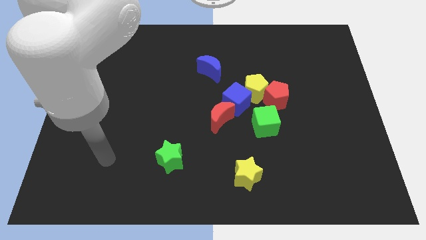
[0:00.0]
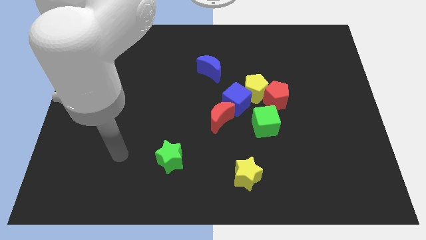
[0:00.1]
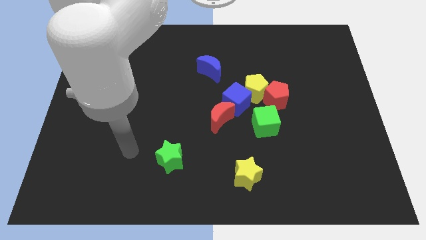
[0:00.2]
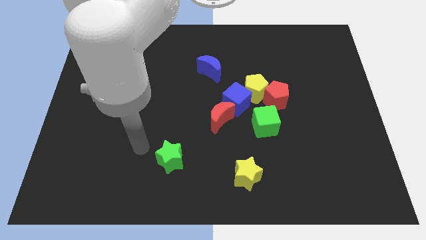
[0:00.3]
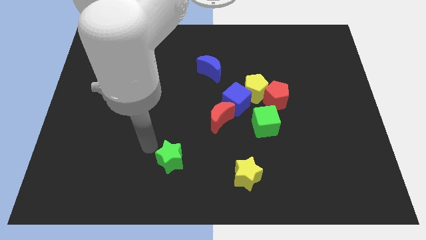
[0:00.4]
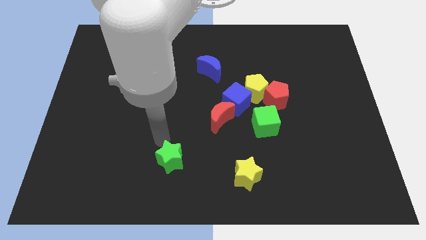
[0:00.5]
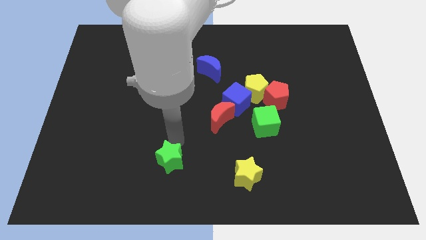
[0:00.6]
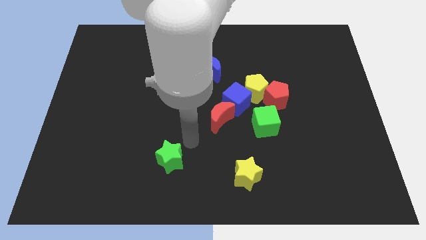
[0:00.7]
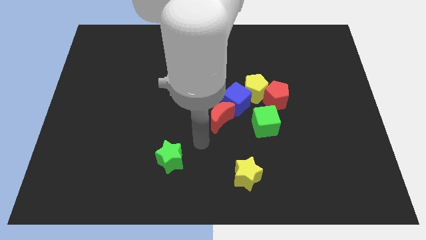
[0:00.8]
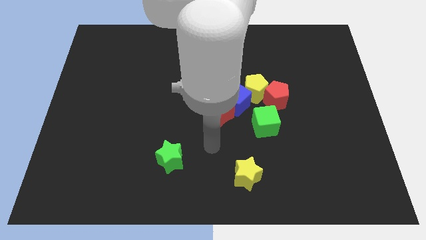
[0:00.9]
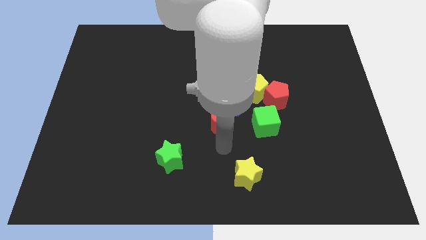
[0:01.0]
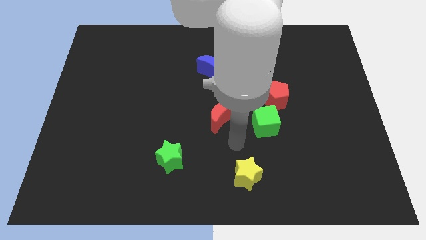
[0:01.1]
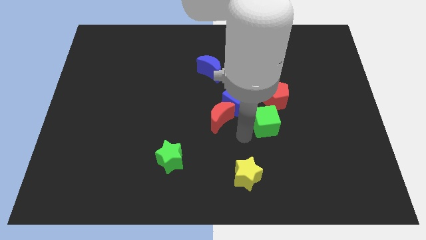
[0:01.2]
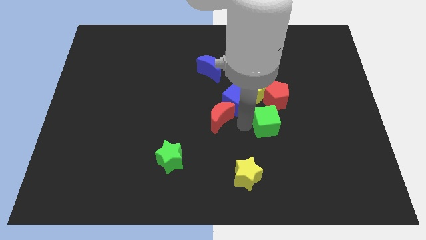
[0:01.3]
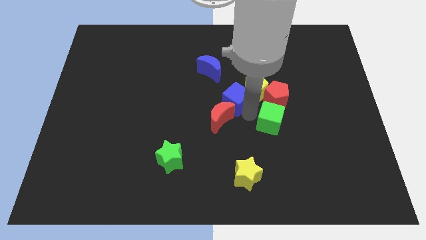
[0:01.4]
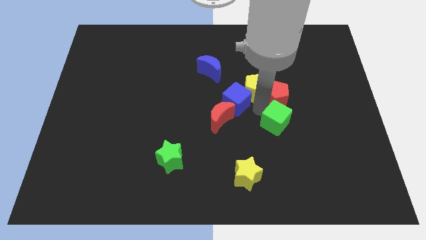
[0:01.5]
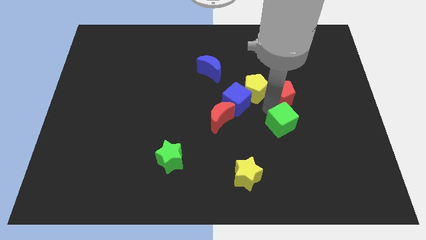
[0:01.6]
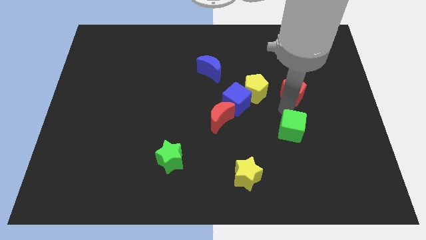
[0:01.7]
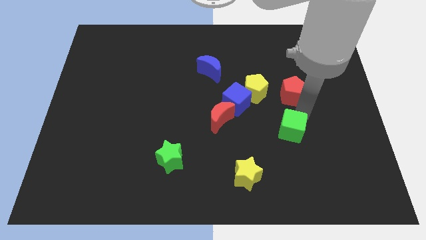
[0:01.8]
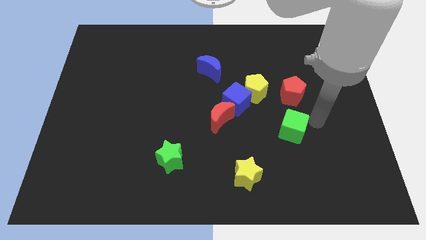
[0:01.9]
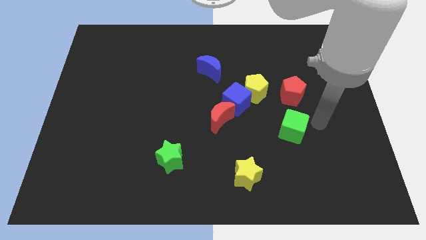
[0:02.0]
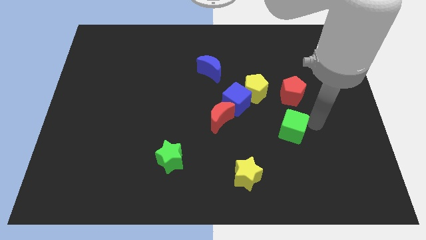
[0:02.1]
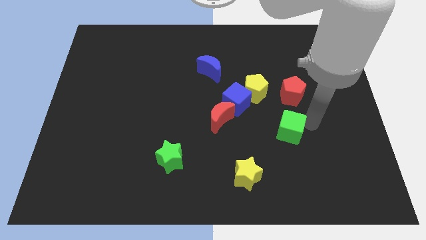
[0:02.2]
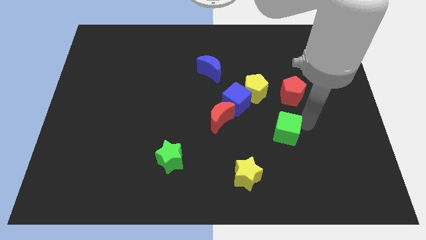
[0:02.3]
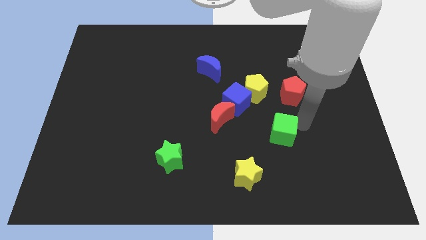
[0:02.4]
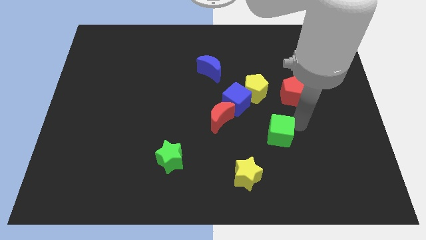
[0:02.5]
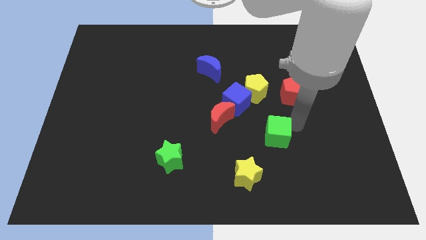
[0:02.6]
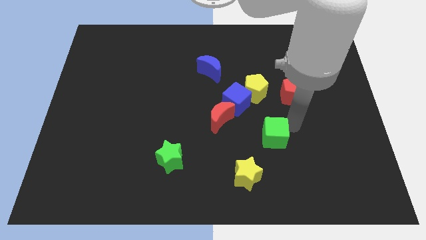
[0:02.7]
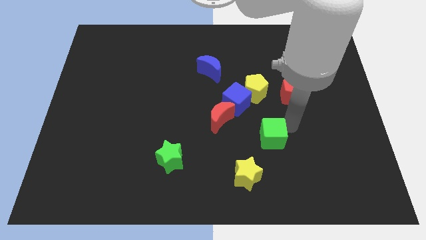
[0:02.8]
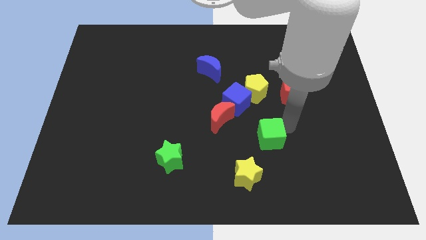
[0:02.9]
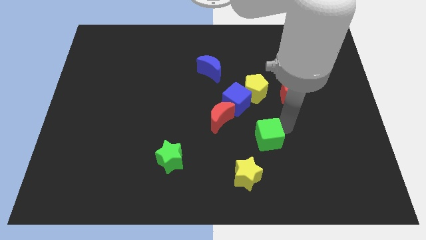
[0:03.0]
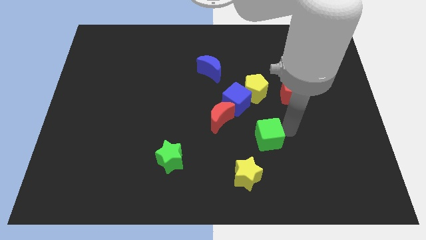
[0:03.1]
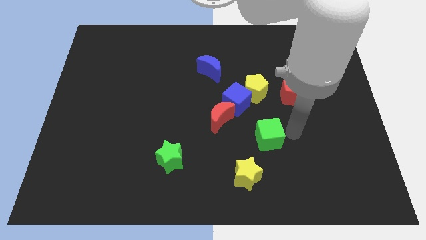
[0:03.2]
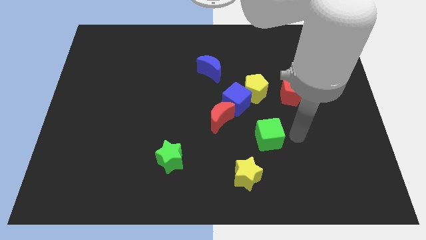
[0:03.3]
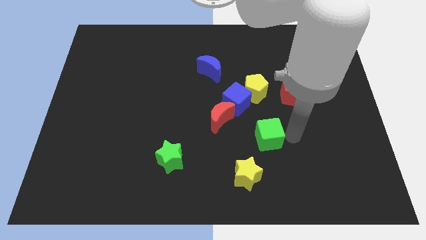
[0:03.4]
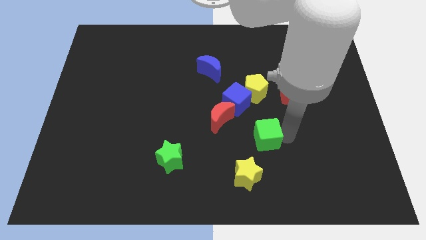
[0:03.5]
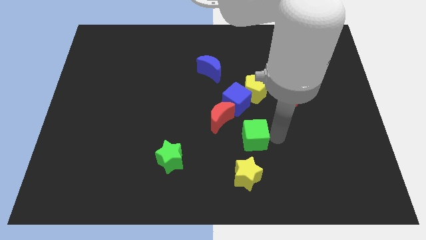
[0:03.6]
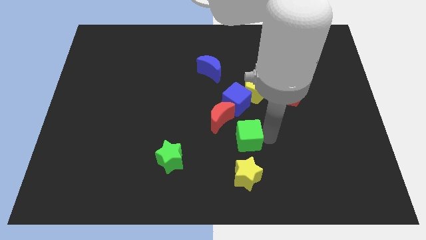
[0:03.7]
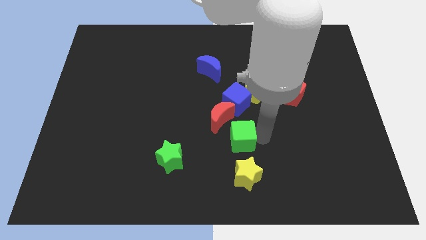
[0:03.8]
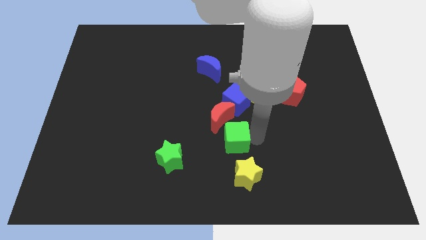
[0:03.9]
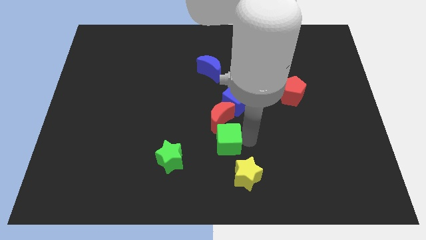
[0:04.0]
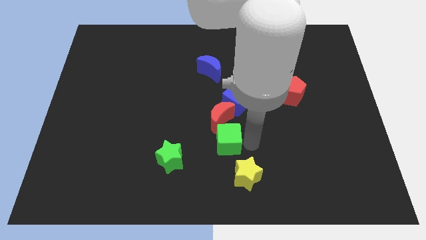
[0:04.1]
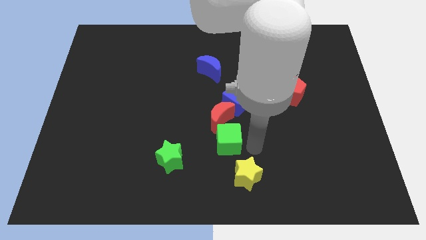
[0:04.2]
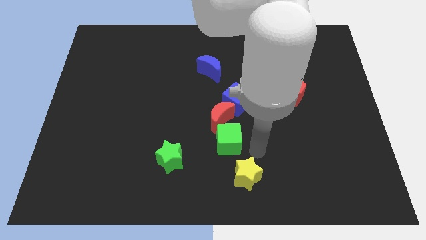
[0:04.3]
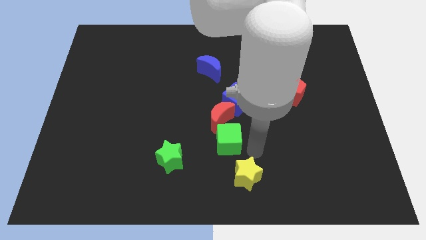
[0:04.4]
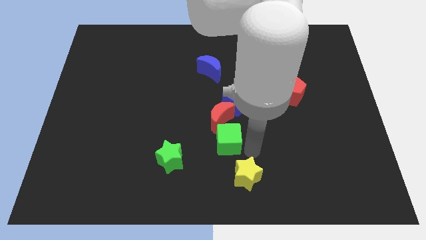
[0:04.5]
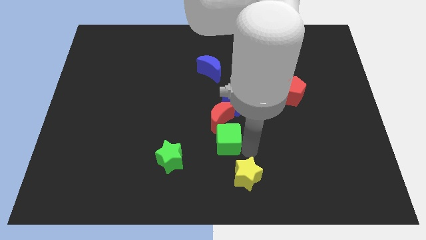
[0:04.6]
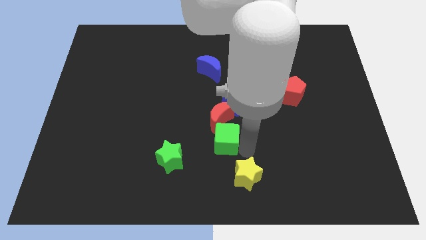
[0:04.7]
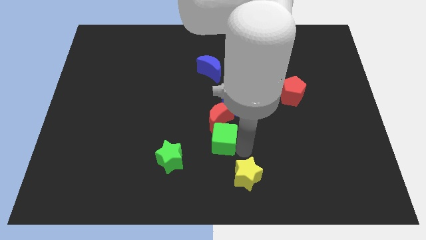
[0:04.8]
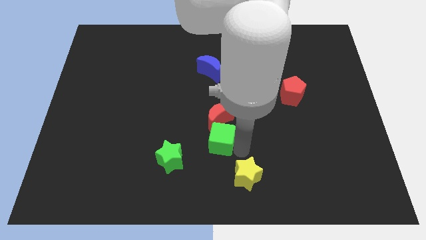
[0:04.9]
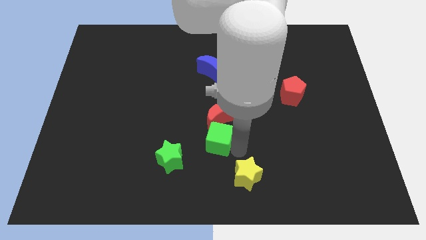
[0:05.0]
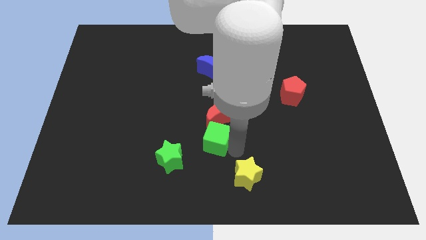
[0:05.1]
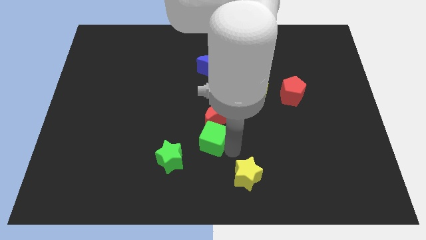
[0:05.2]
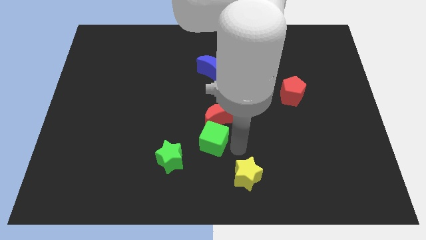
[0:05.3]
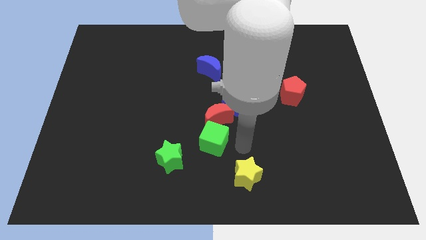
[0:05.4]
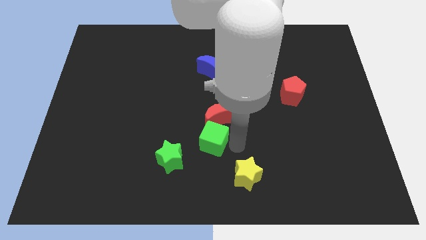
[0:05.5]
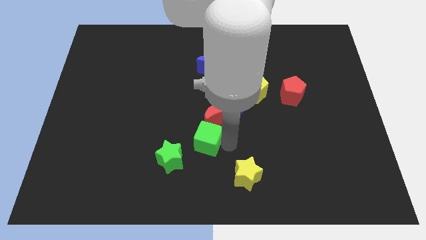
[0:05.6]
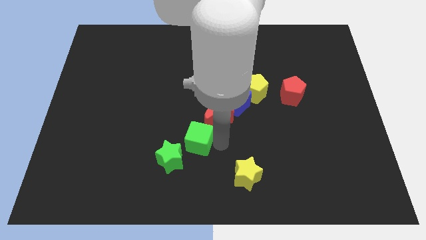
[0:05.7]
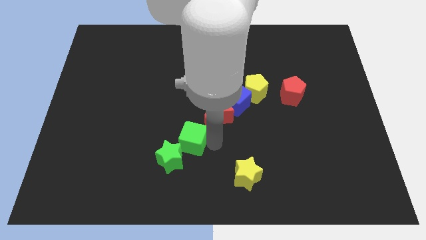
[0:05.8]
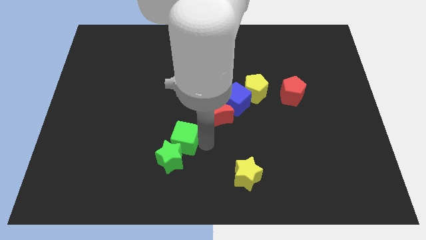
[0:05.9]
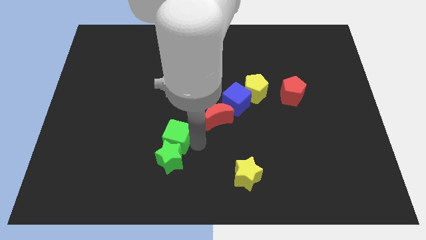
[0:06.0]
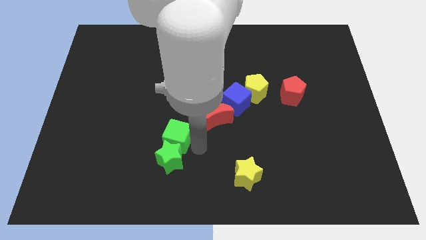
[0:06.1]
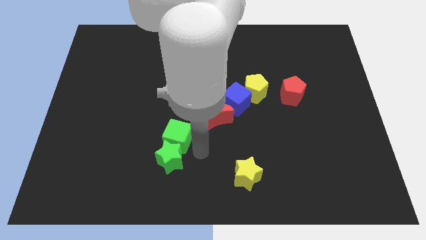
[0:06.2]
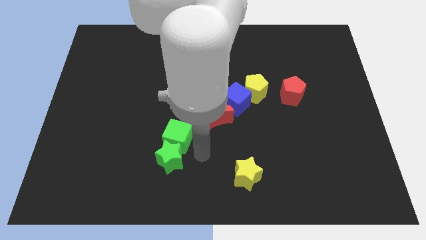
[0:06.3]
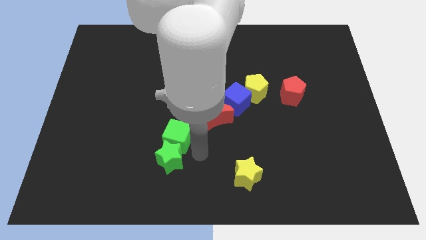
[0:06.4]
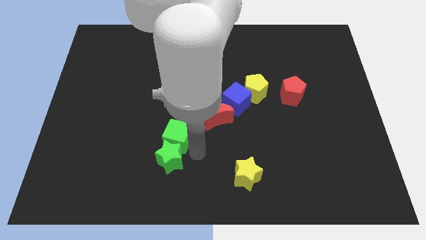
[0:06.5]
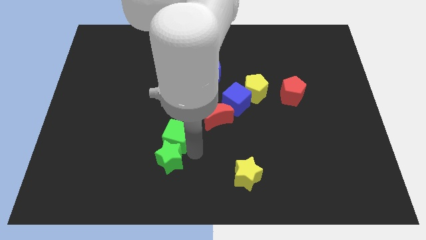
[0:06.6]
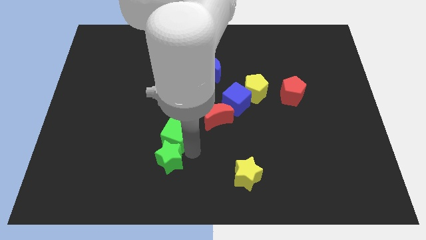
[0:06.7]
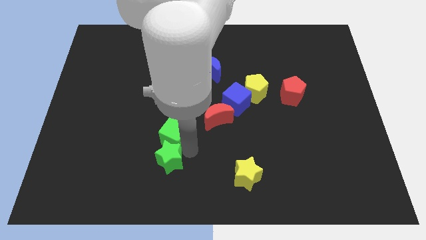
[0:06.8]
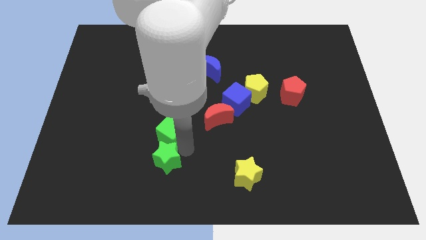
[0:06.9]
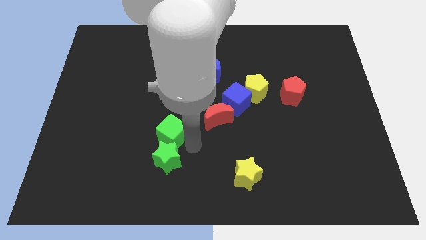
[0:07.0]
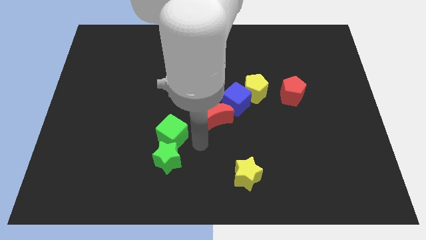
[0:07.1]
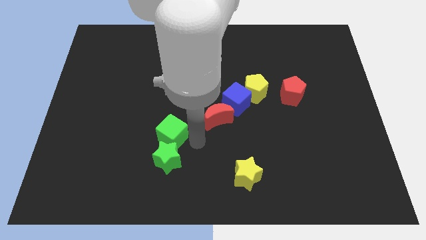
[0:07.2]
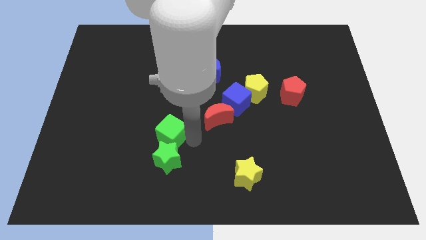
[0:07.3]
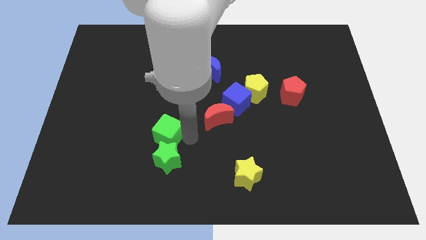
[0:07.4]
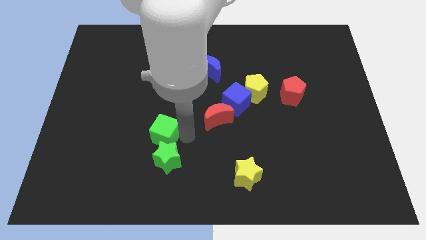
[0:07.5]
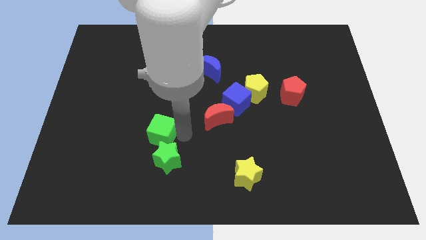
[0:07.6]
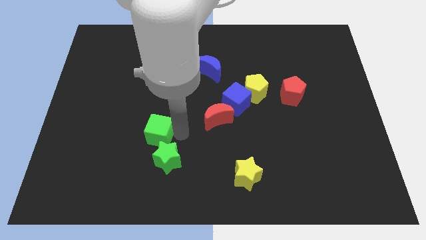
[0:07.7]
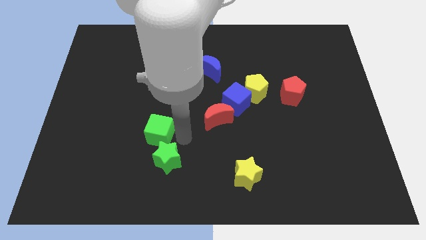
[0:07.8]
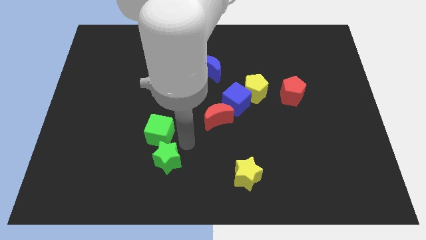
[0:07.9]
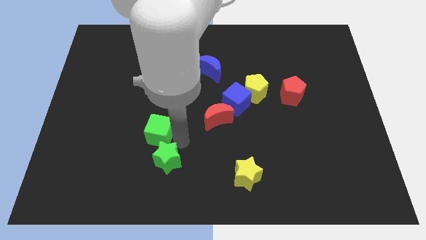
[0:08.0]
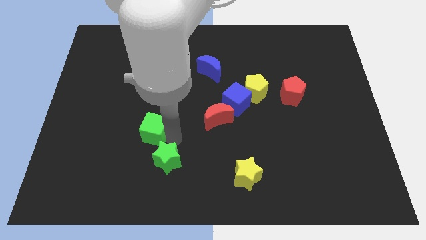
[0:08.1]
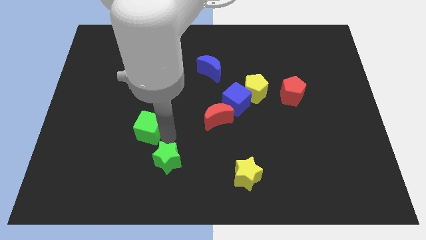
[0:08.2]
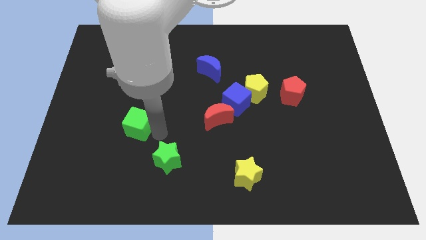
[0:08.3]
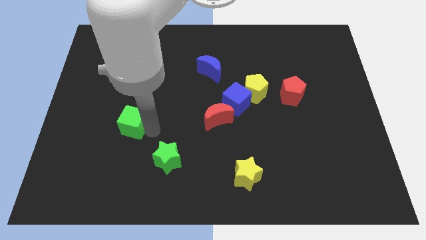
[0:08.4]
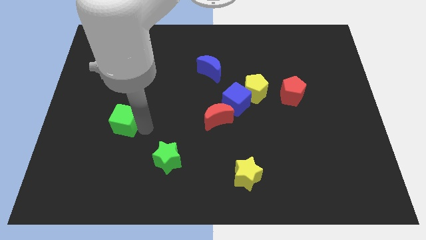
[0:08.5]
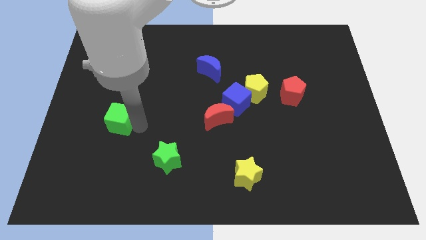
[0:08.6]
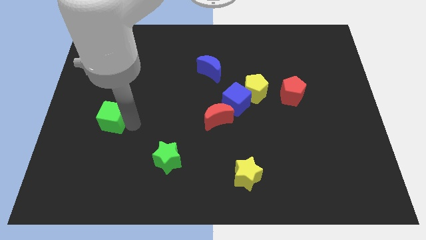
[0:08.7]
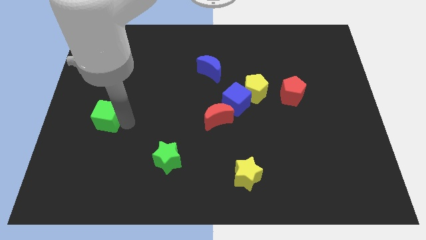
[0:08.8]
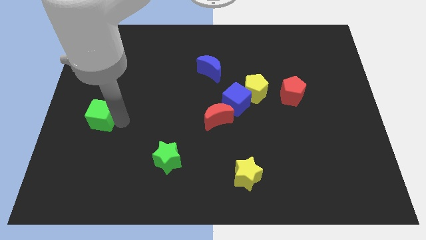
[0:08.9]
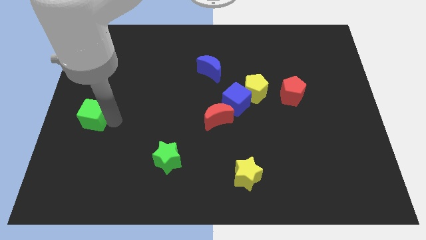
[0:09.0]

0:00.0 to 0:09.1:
put the green cube to the left side
